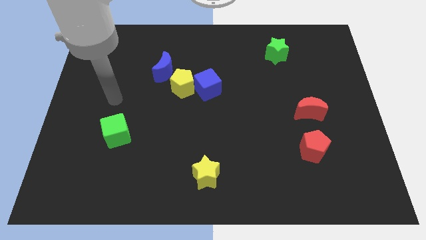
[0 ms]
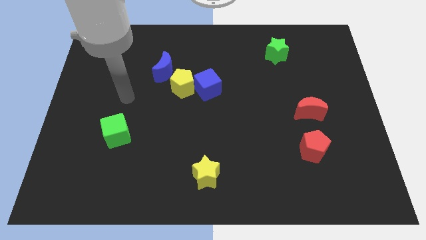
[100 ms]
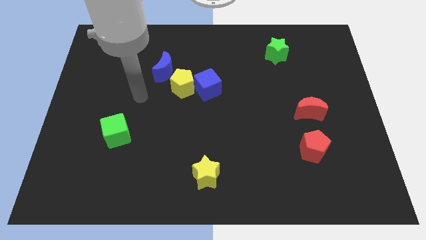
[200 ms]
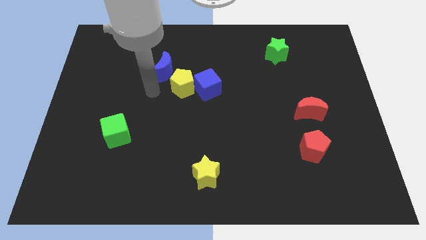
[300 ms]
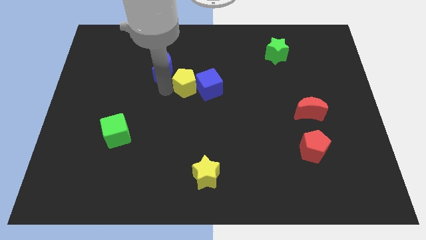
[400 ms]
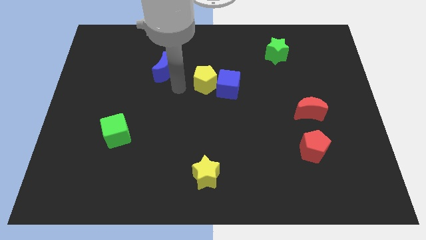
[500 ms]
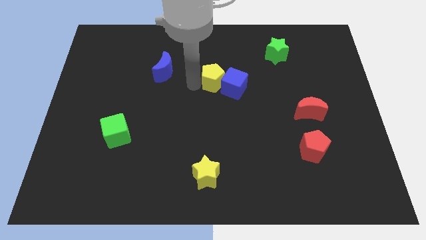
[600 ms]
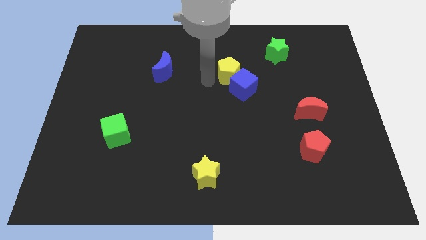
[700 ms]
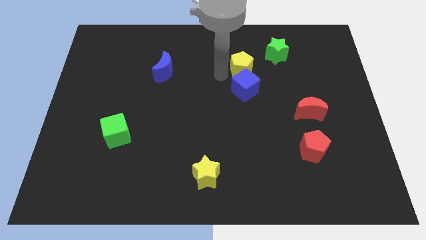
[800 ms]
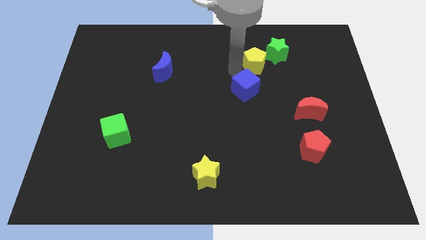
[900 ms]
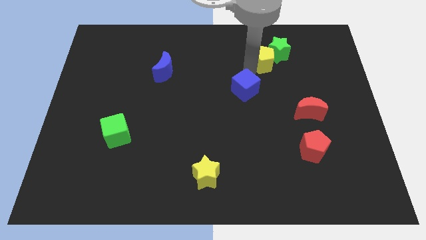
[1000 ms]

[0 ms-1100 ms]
move the blue cube away from the yellow pentagon

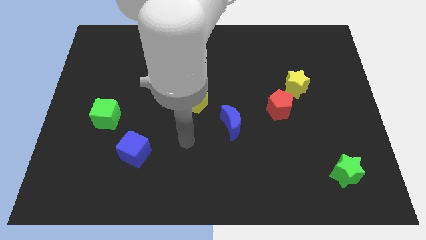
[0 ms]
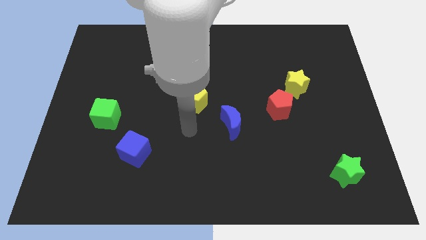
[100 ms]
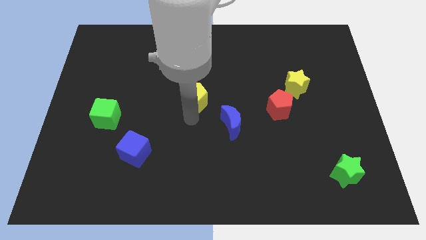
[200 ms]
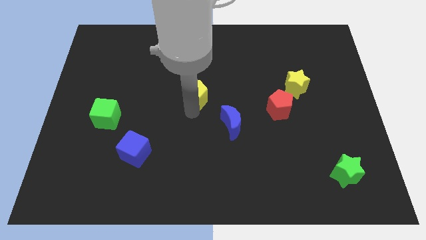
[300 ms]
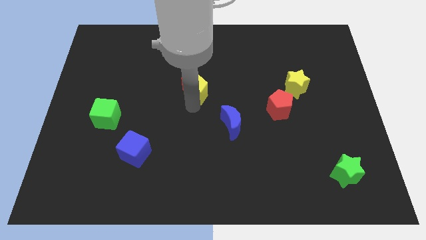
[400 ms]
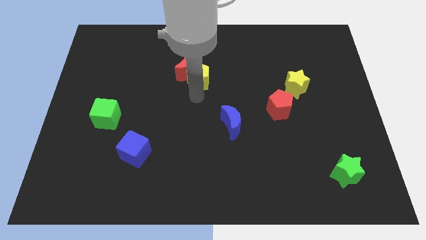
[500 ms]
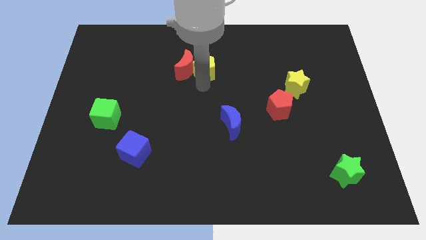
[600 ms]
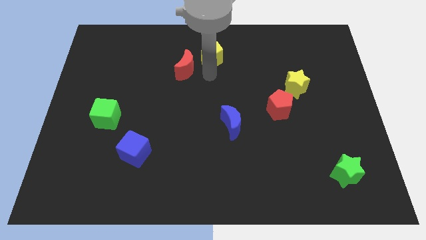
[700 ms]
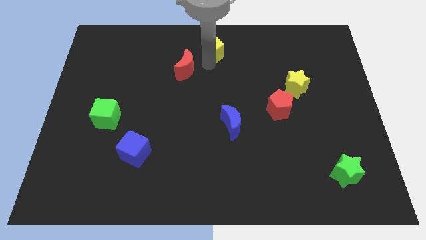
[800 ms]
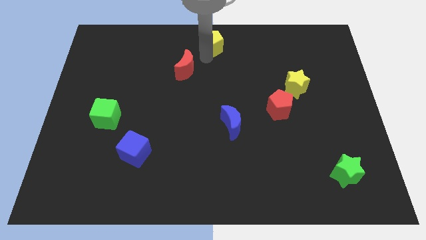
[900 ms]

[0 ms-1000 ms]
move the red moon away from the yellow pentagon

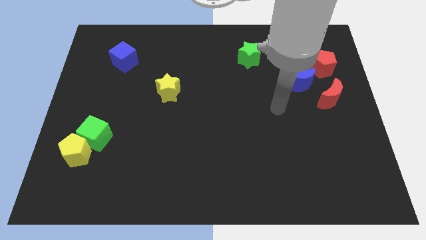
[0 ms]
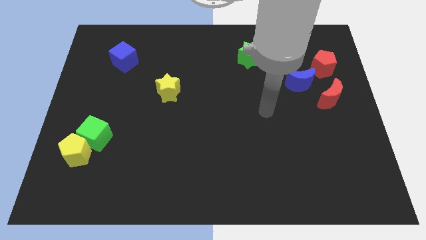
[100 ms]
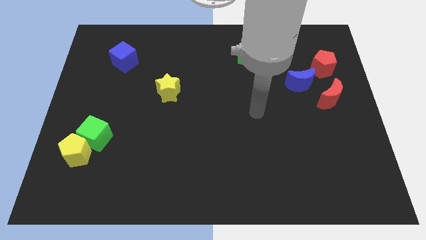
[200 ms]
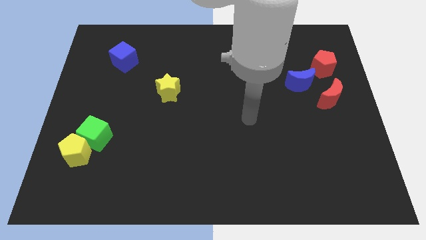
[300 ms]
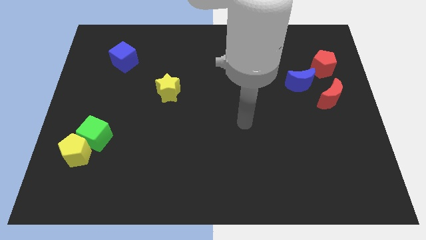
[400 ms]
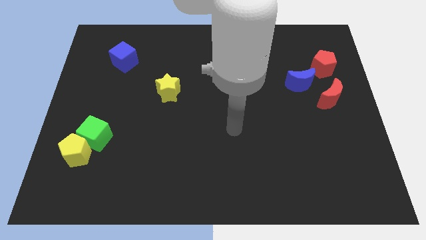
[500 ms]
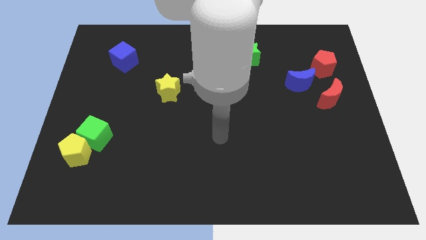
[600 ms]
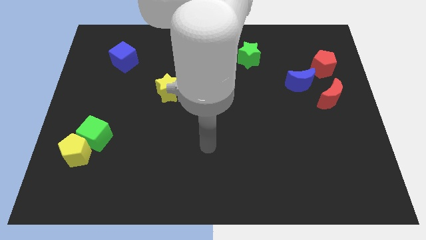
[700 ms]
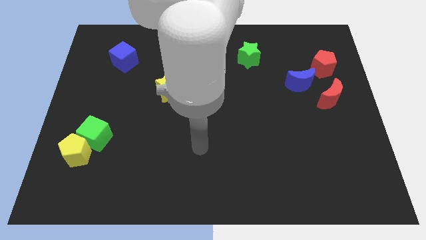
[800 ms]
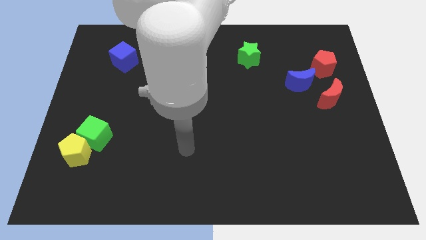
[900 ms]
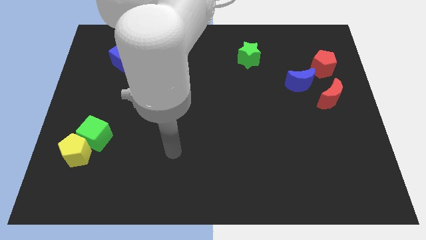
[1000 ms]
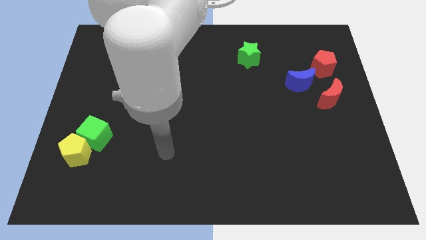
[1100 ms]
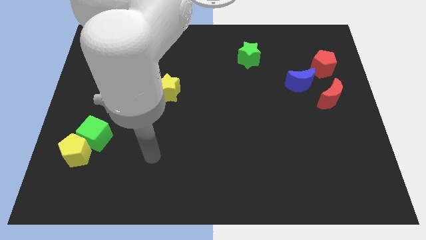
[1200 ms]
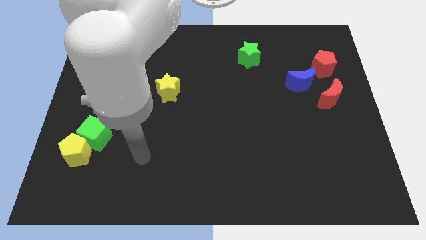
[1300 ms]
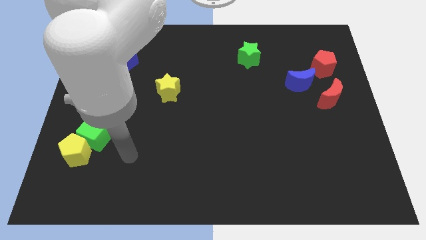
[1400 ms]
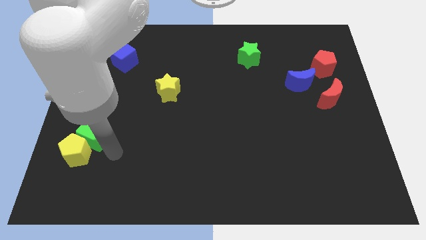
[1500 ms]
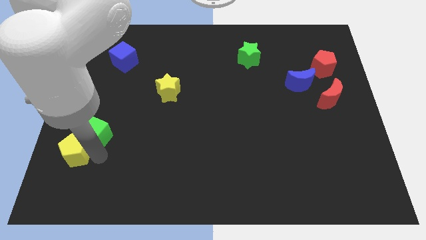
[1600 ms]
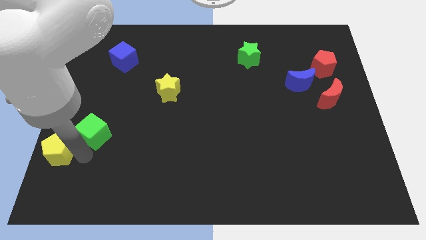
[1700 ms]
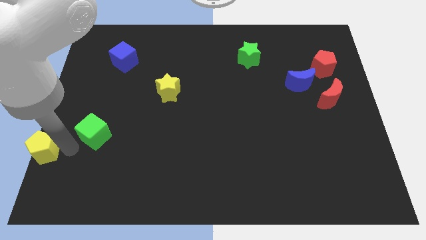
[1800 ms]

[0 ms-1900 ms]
move the green cube away from the yellow pentagon

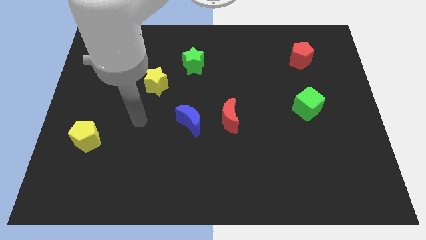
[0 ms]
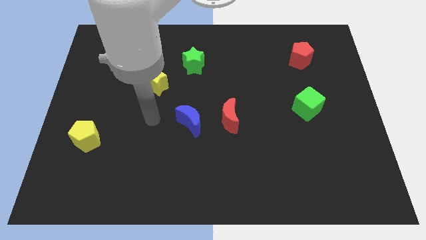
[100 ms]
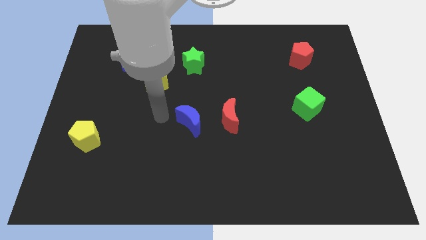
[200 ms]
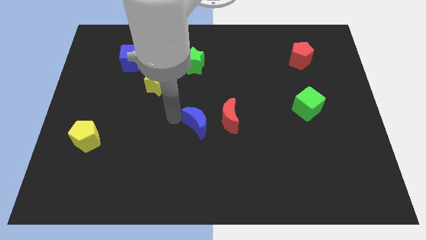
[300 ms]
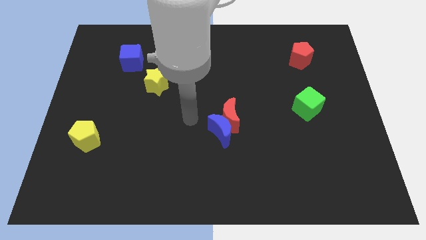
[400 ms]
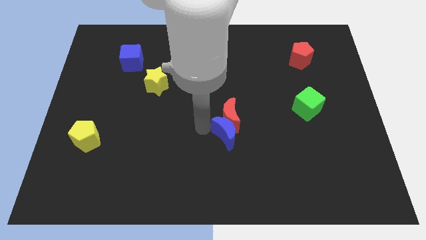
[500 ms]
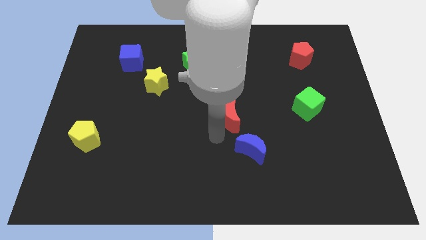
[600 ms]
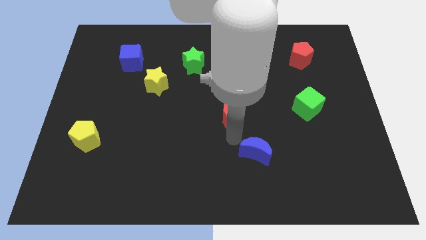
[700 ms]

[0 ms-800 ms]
move the red moon away from the blue moon

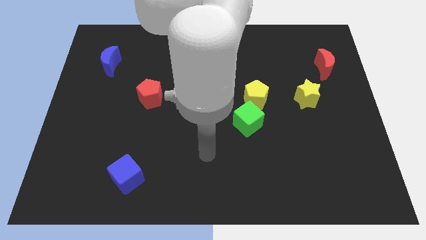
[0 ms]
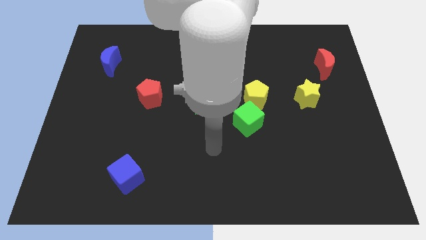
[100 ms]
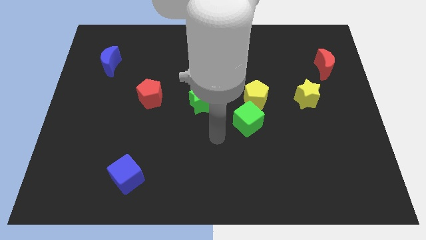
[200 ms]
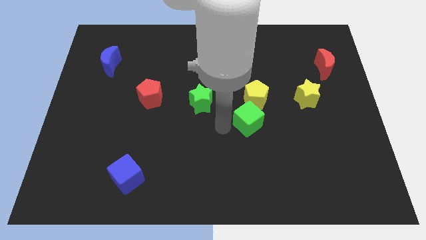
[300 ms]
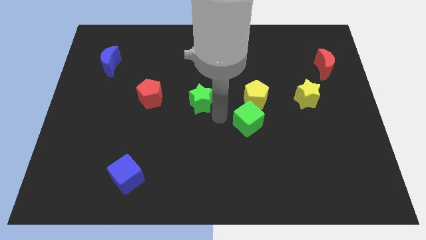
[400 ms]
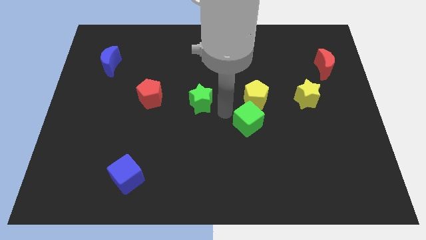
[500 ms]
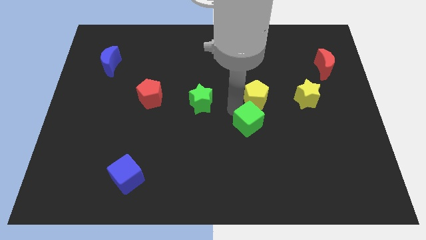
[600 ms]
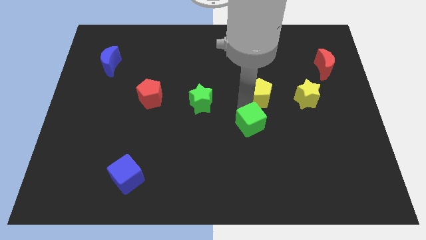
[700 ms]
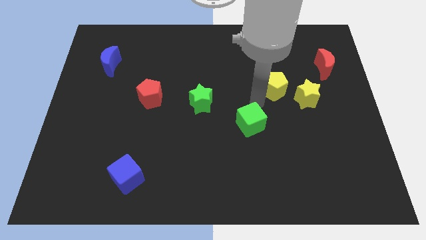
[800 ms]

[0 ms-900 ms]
separate the green cube from the yellow pentagon

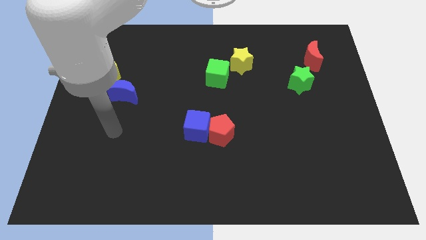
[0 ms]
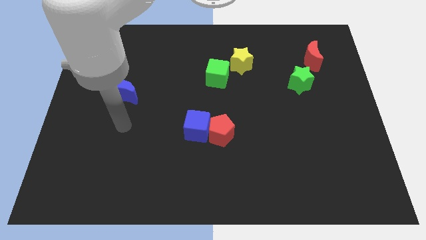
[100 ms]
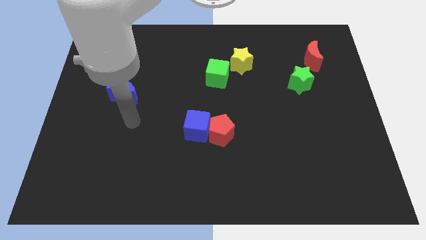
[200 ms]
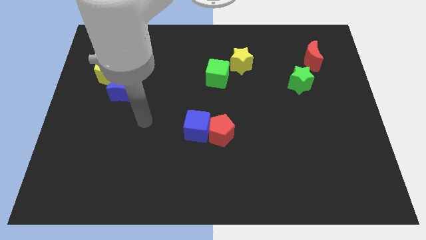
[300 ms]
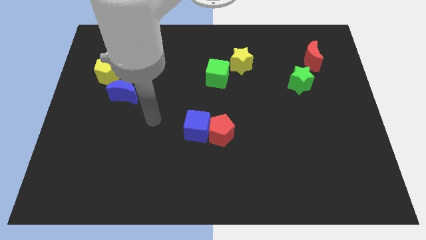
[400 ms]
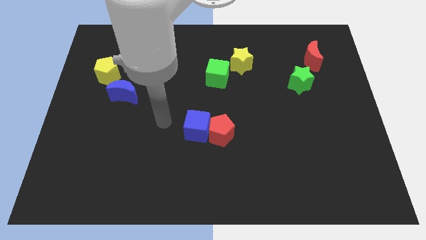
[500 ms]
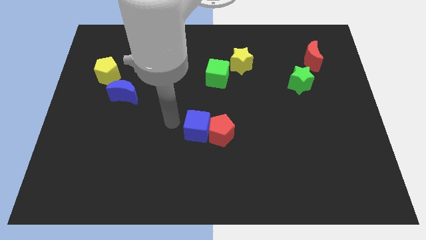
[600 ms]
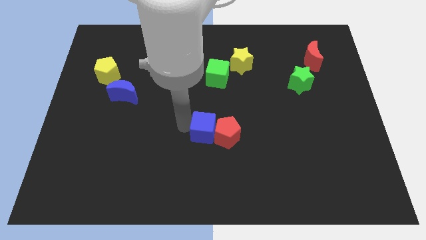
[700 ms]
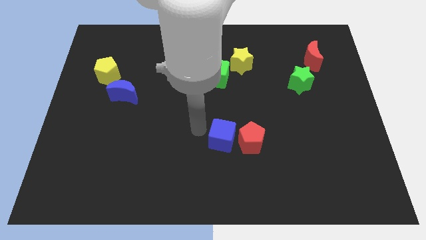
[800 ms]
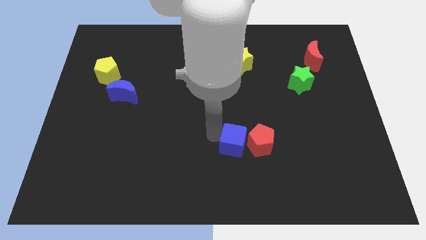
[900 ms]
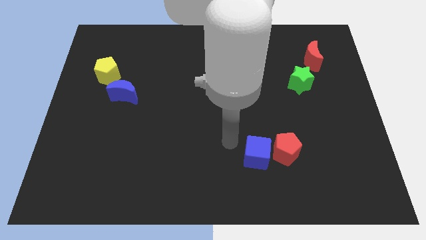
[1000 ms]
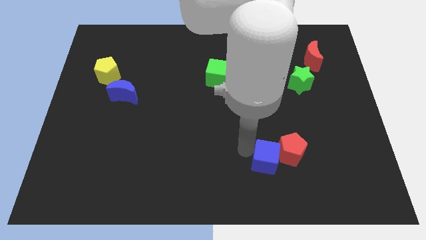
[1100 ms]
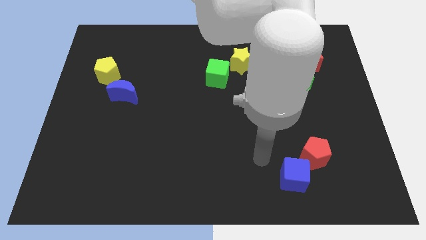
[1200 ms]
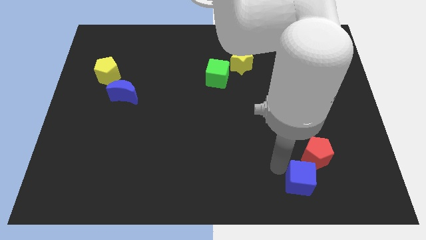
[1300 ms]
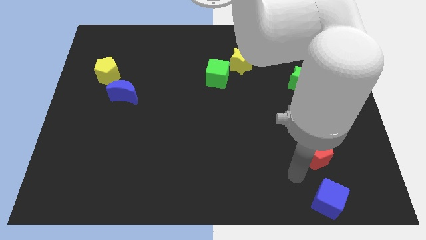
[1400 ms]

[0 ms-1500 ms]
pull the red pentagon apart from the blue cube

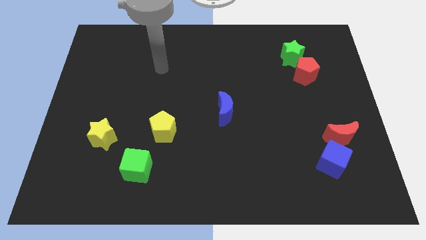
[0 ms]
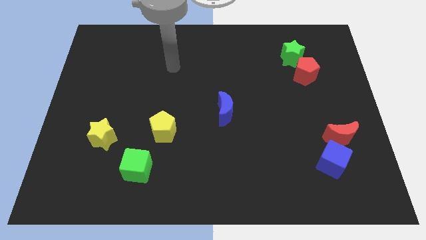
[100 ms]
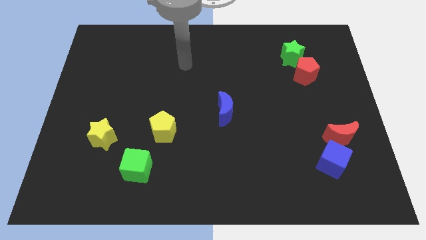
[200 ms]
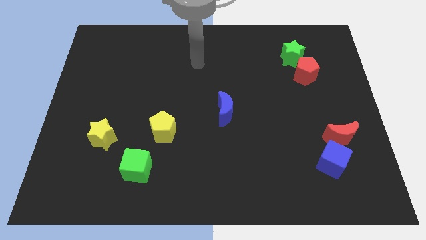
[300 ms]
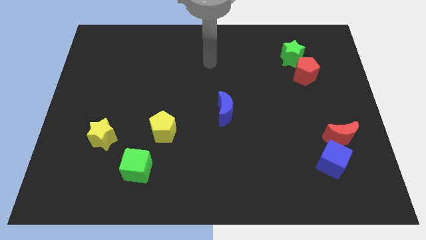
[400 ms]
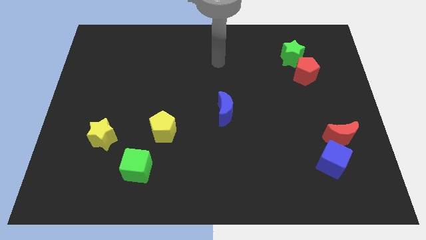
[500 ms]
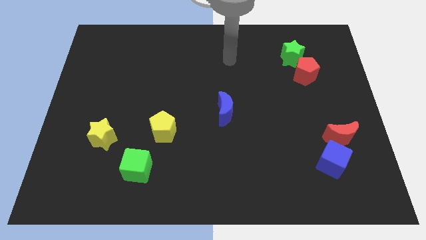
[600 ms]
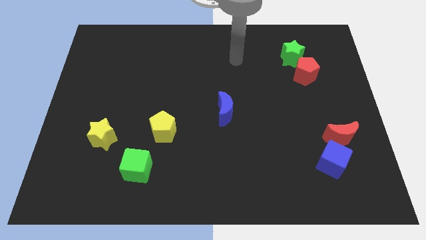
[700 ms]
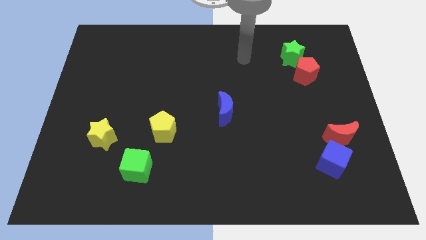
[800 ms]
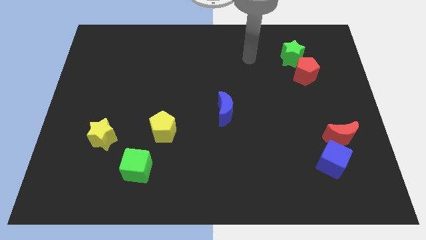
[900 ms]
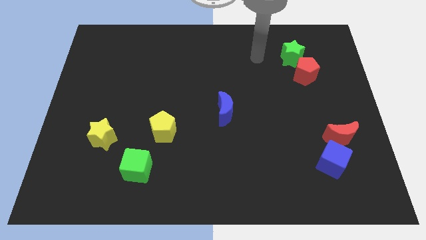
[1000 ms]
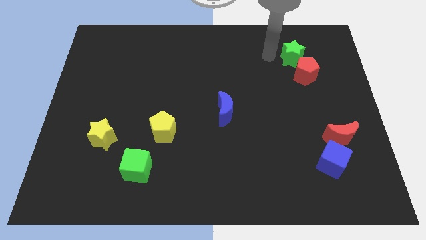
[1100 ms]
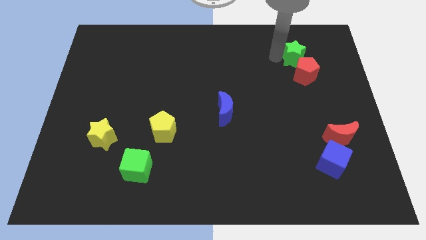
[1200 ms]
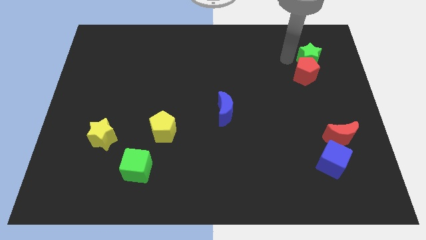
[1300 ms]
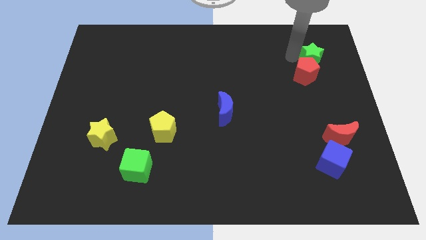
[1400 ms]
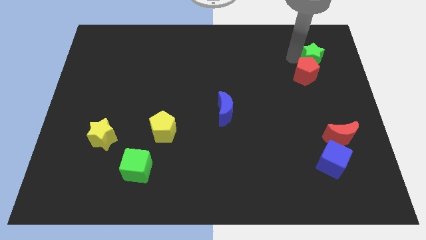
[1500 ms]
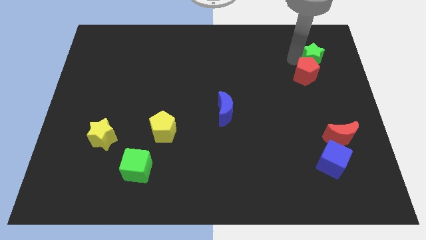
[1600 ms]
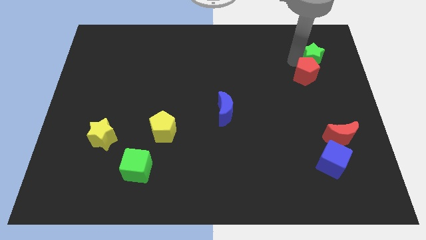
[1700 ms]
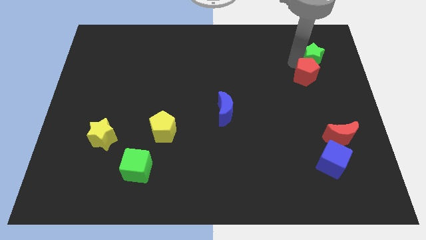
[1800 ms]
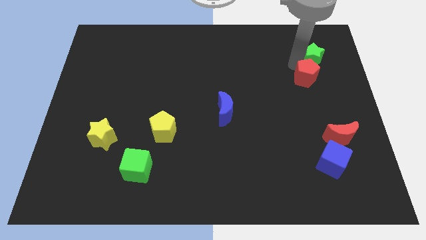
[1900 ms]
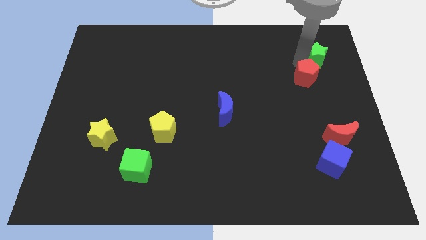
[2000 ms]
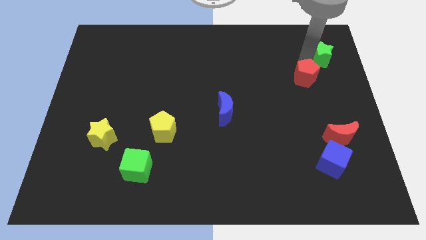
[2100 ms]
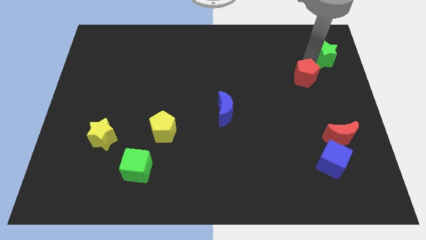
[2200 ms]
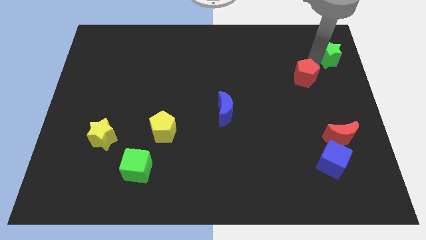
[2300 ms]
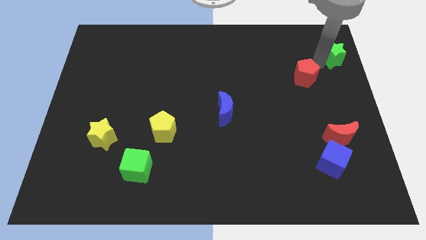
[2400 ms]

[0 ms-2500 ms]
pull the red pentagon apart from the green star
